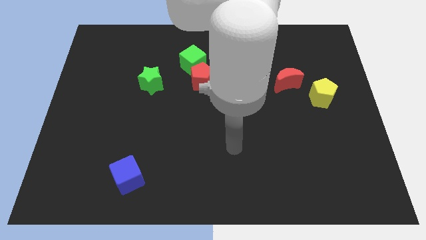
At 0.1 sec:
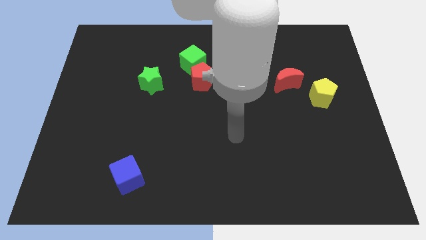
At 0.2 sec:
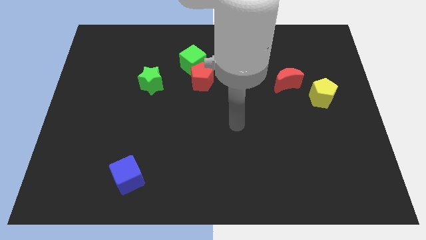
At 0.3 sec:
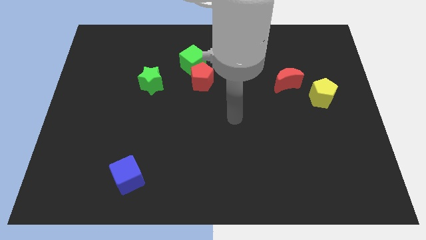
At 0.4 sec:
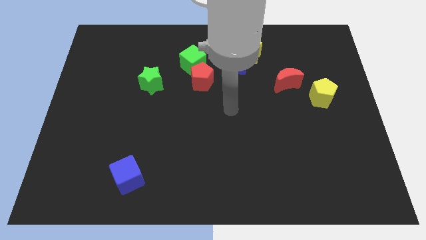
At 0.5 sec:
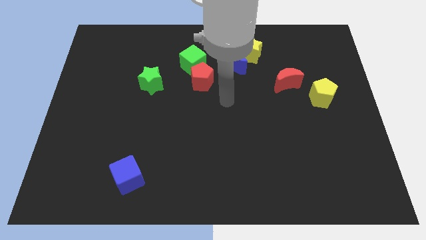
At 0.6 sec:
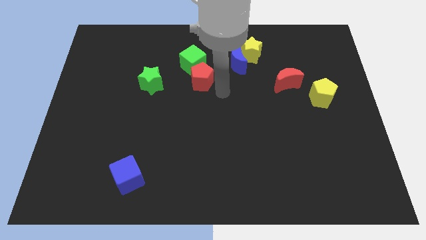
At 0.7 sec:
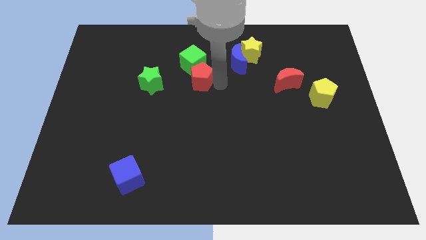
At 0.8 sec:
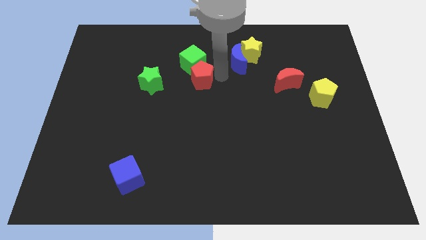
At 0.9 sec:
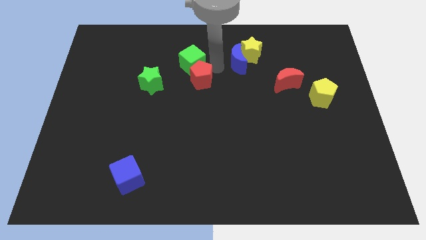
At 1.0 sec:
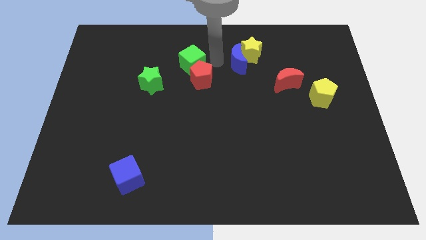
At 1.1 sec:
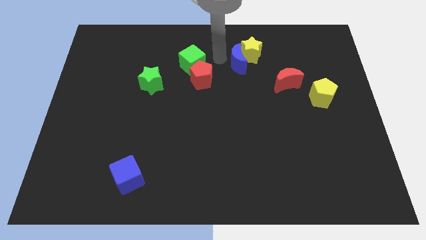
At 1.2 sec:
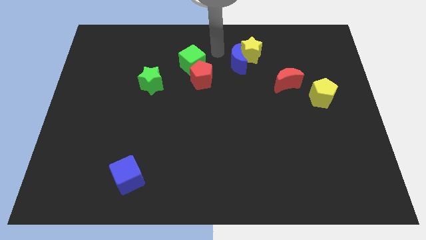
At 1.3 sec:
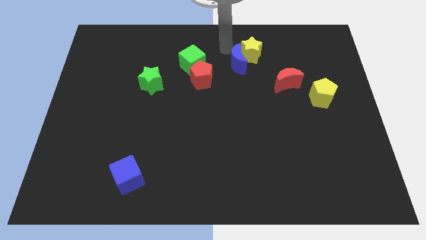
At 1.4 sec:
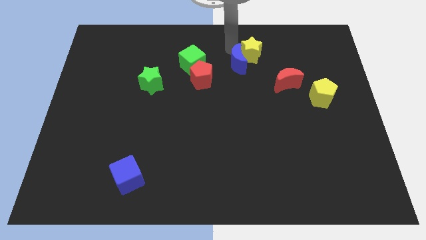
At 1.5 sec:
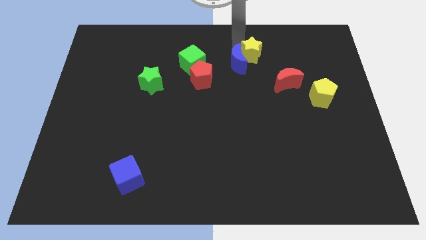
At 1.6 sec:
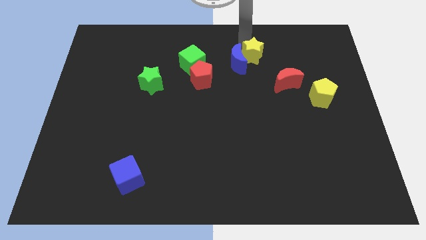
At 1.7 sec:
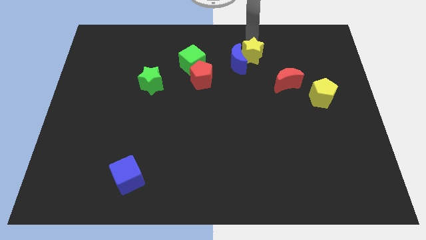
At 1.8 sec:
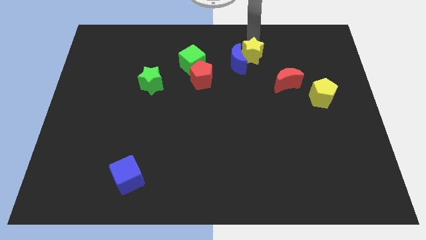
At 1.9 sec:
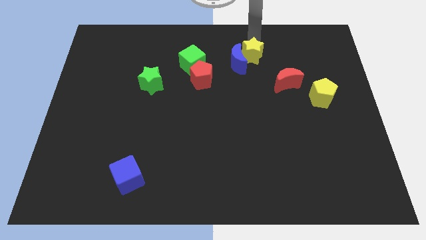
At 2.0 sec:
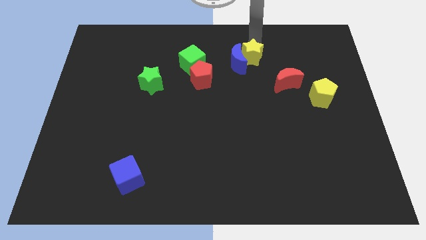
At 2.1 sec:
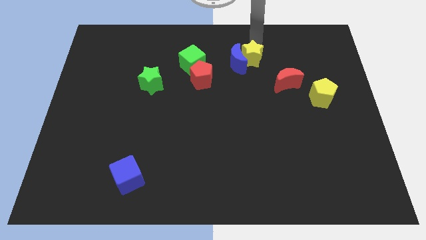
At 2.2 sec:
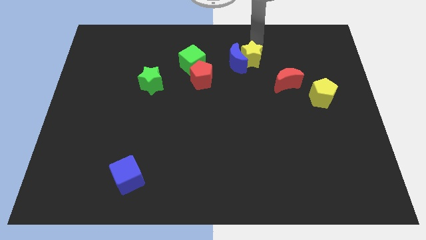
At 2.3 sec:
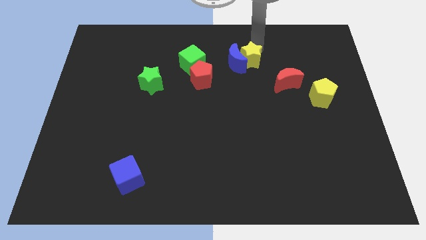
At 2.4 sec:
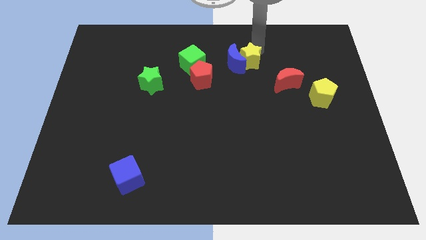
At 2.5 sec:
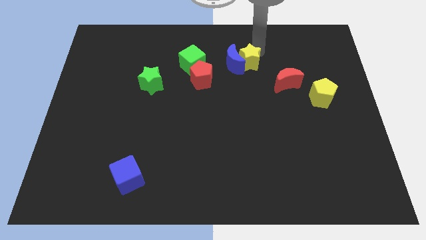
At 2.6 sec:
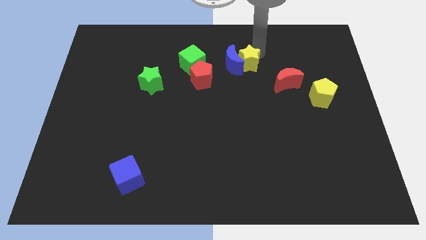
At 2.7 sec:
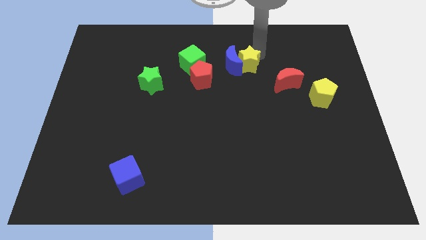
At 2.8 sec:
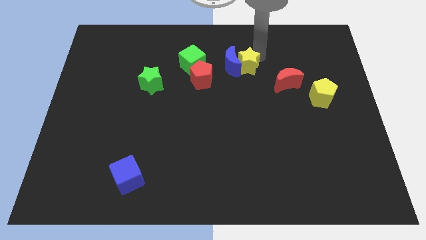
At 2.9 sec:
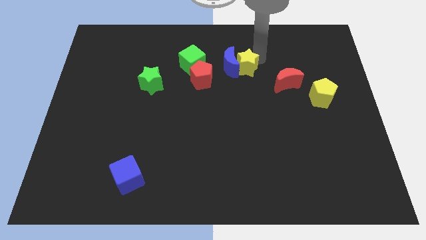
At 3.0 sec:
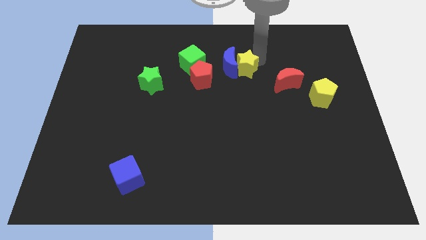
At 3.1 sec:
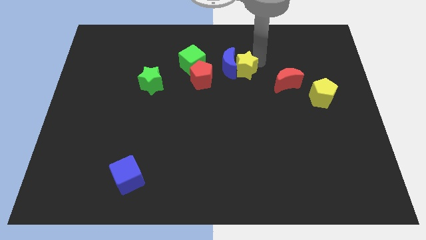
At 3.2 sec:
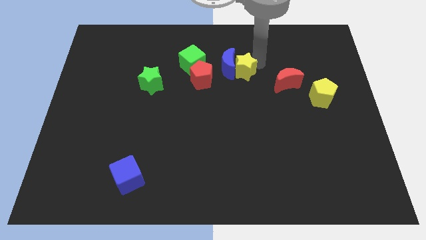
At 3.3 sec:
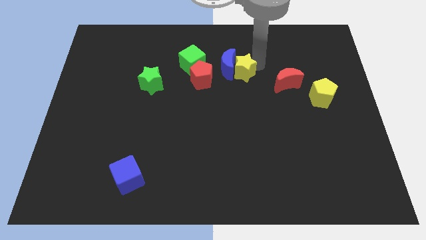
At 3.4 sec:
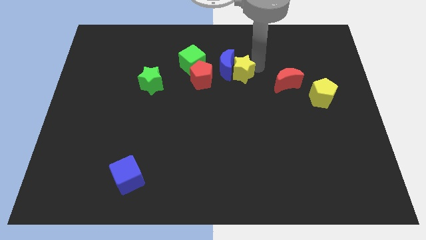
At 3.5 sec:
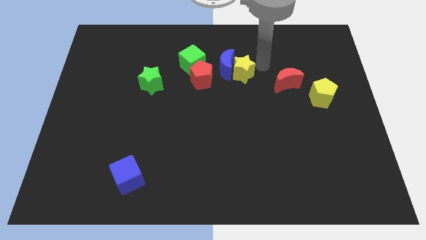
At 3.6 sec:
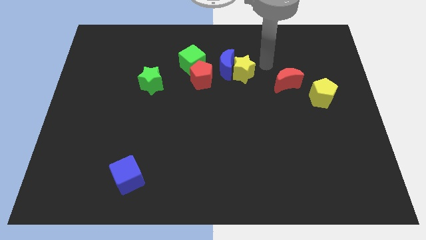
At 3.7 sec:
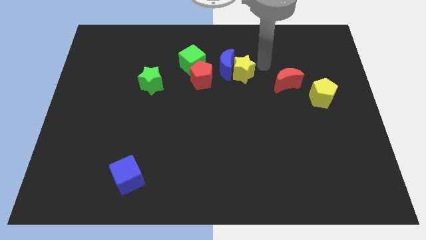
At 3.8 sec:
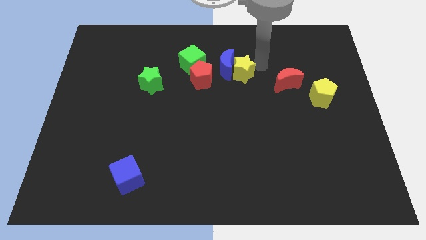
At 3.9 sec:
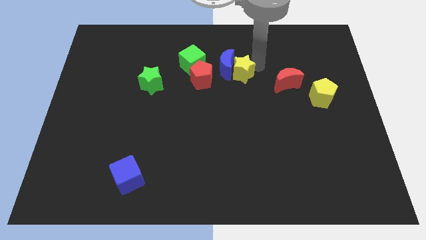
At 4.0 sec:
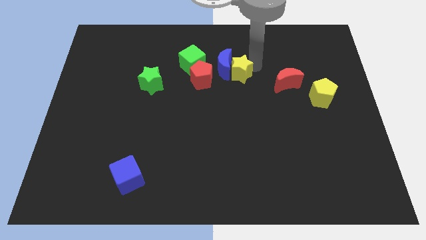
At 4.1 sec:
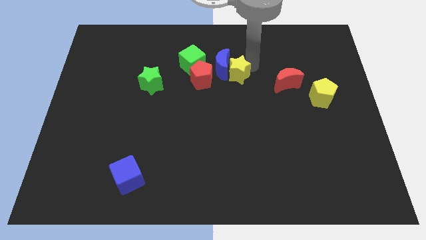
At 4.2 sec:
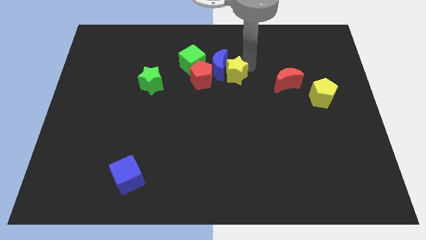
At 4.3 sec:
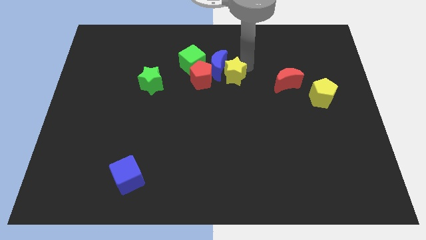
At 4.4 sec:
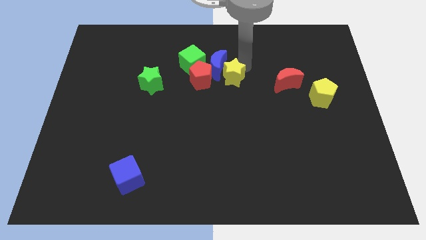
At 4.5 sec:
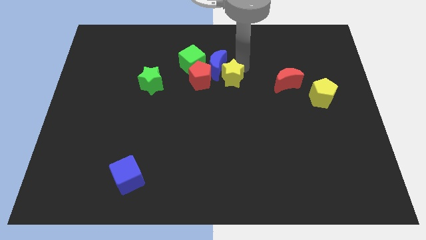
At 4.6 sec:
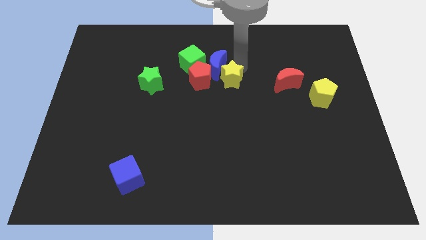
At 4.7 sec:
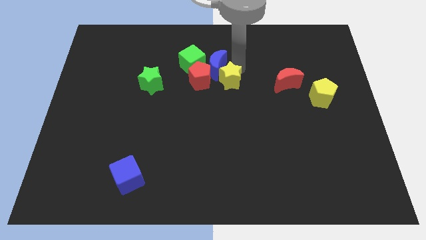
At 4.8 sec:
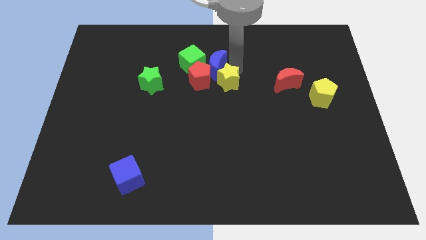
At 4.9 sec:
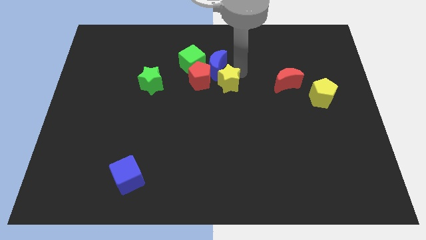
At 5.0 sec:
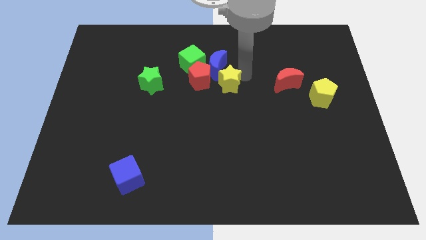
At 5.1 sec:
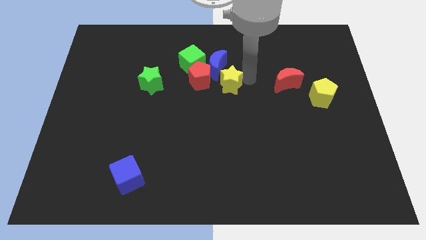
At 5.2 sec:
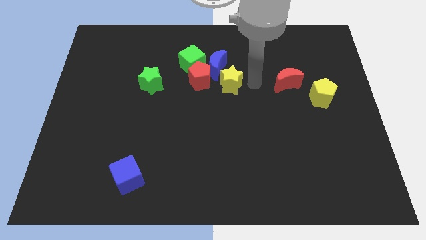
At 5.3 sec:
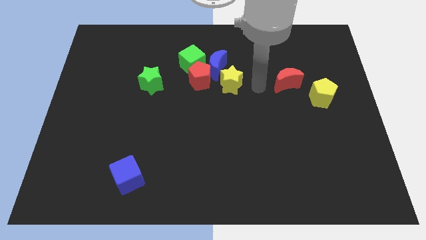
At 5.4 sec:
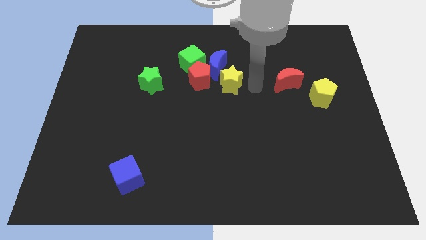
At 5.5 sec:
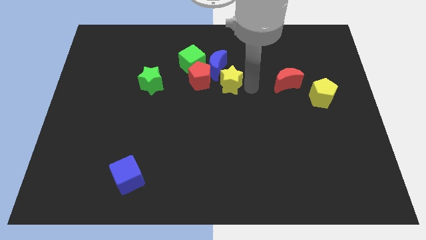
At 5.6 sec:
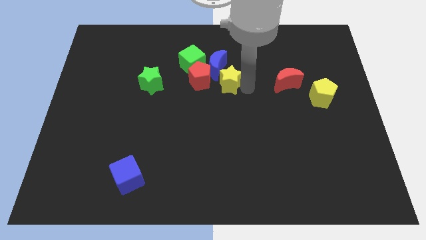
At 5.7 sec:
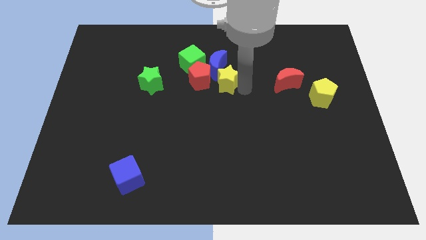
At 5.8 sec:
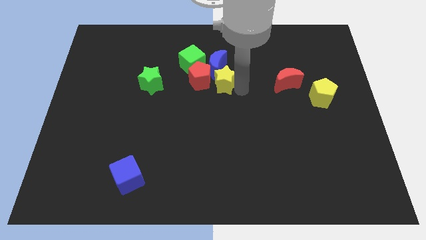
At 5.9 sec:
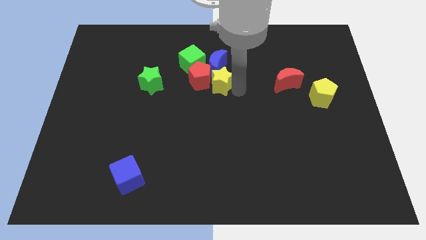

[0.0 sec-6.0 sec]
slide the yellow star close to the red pentagon
